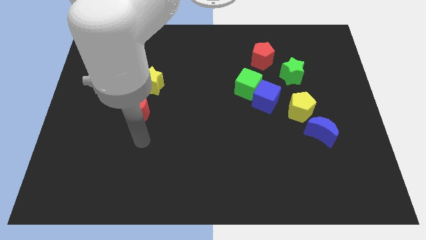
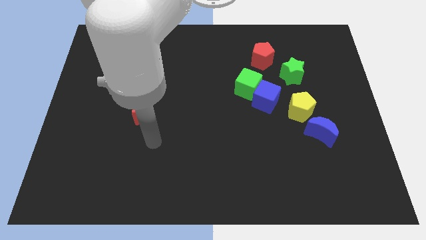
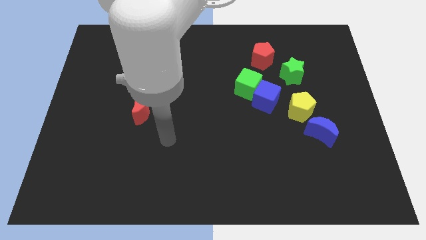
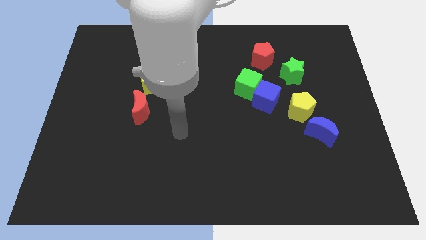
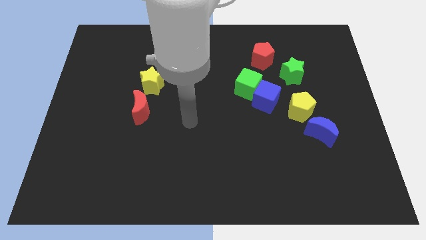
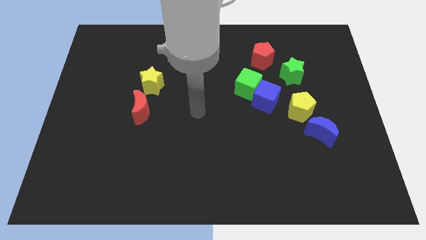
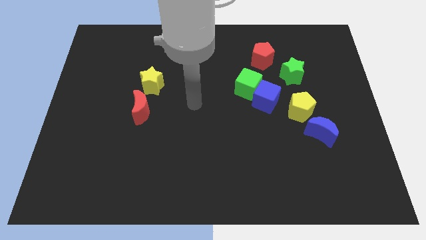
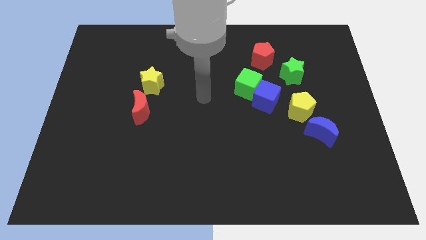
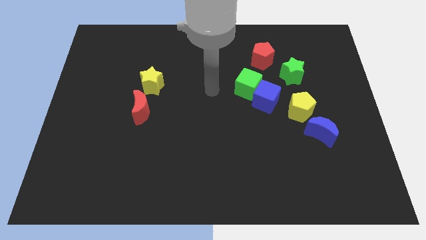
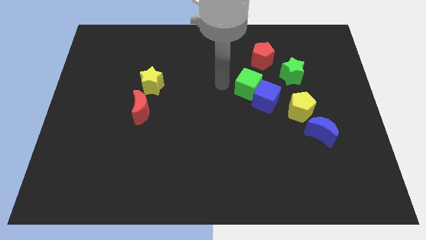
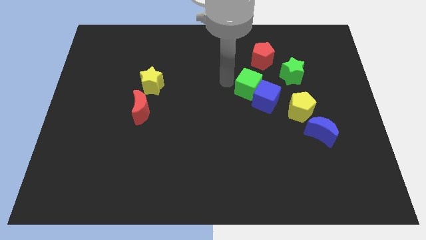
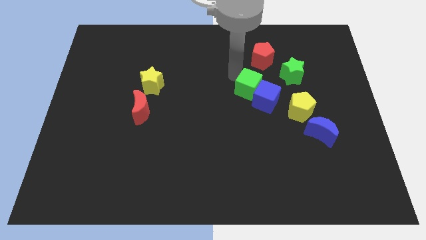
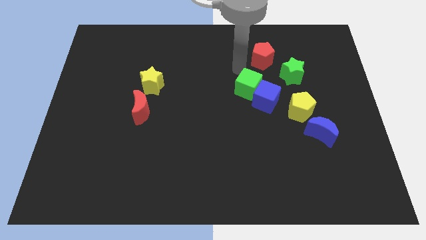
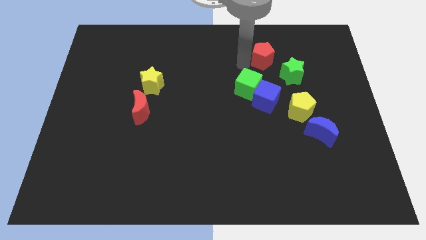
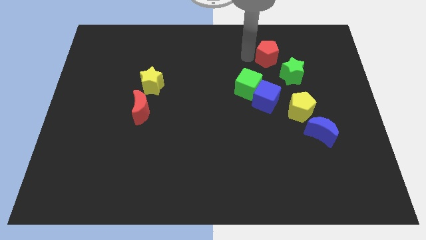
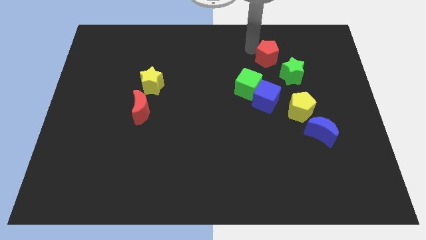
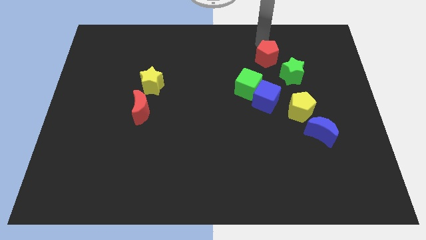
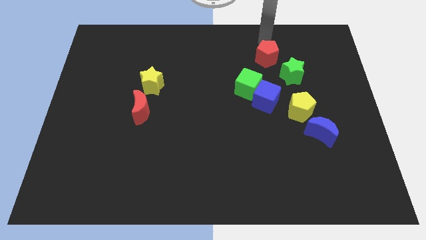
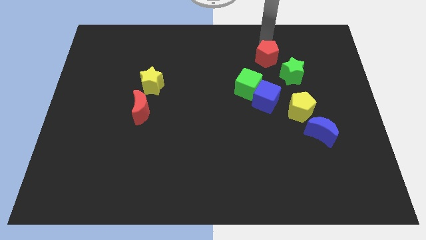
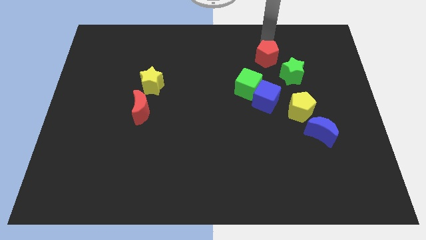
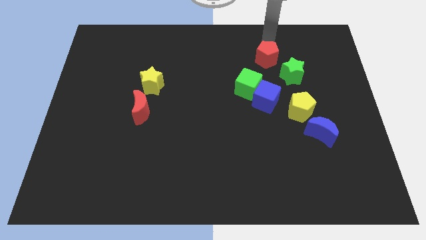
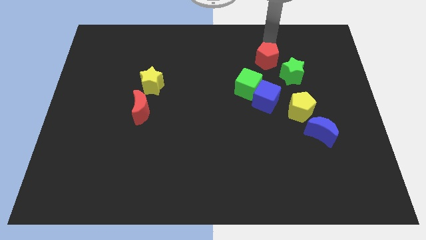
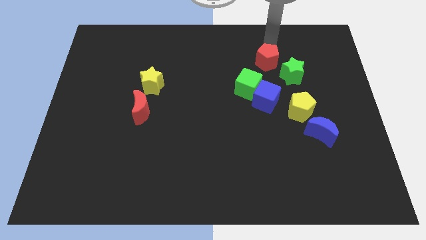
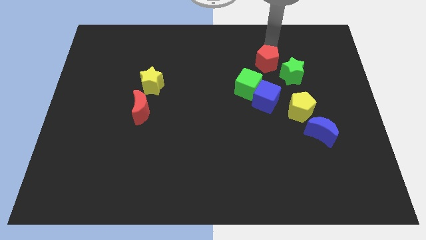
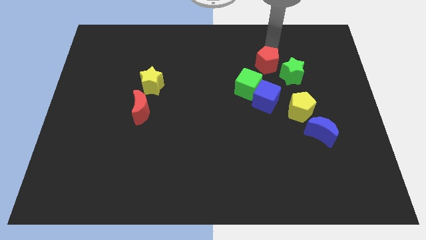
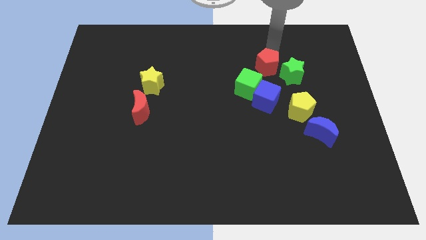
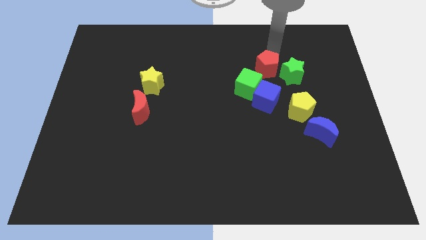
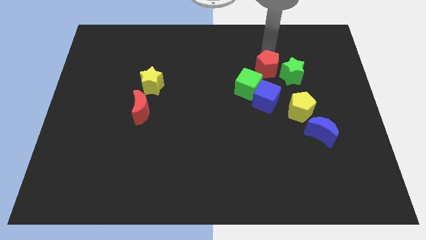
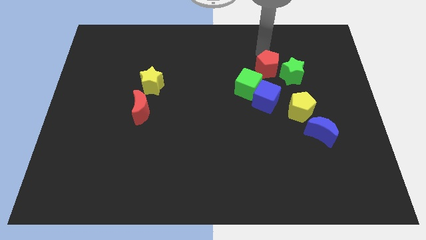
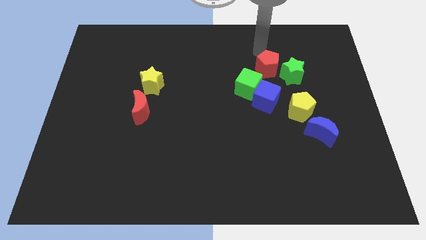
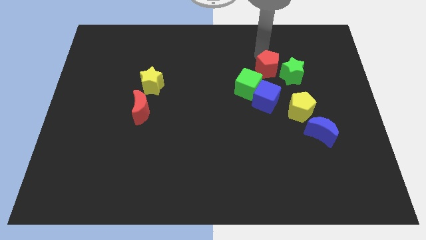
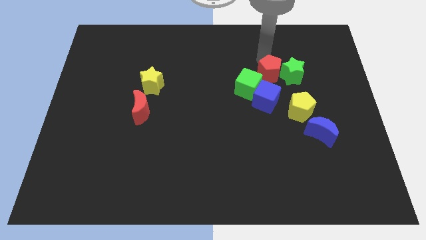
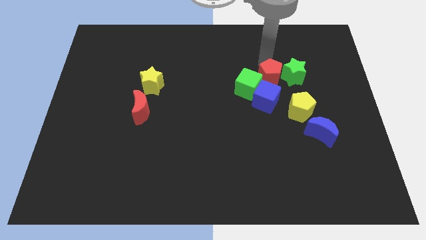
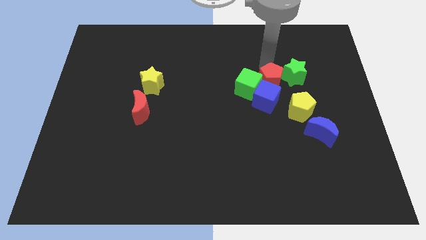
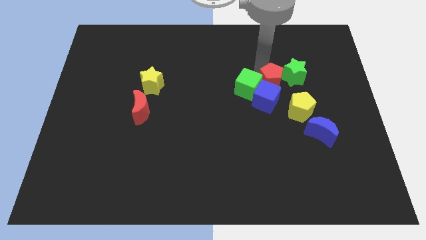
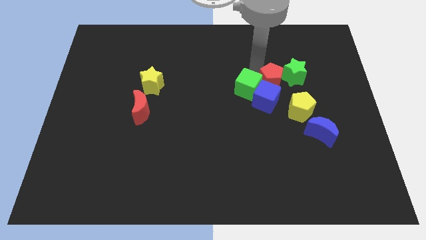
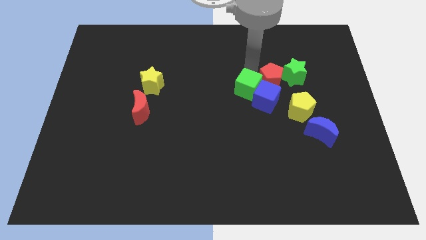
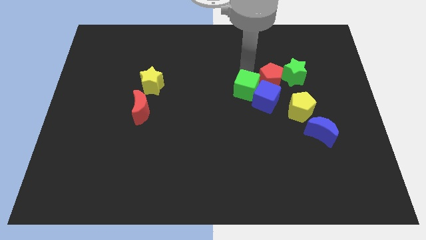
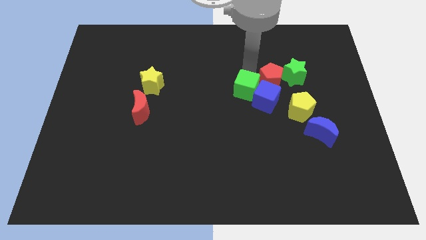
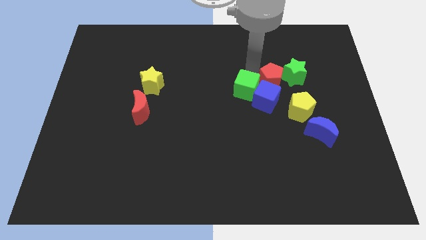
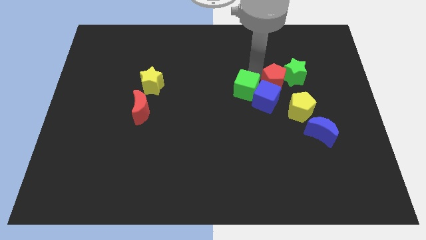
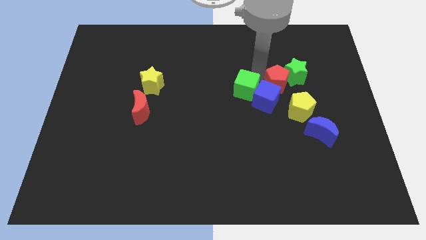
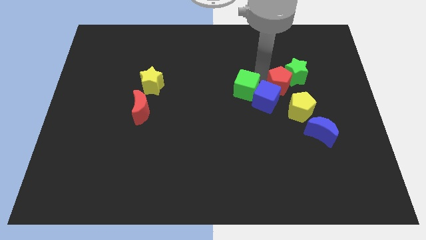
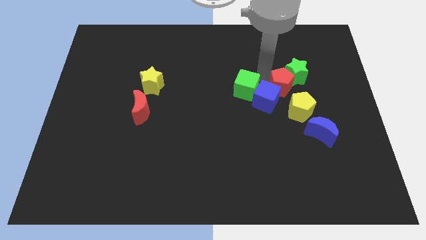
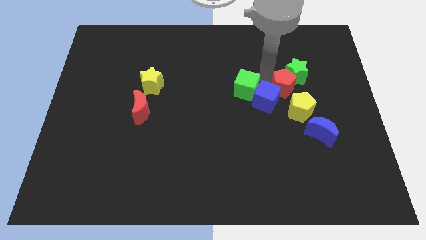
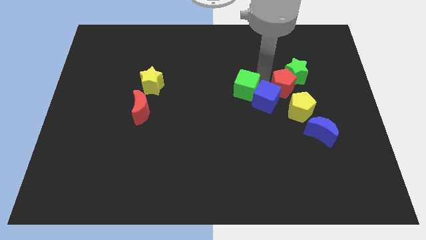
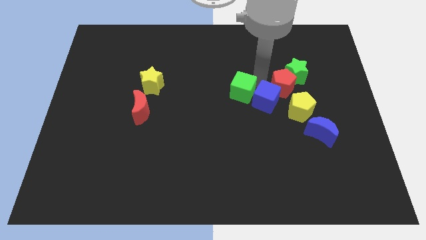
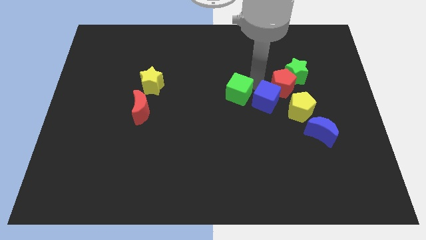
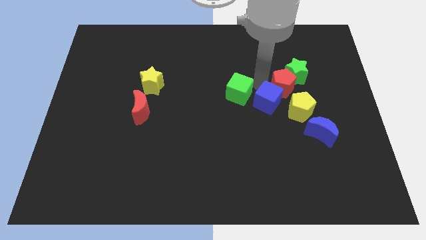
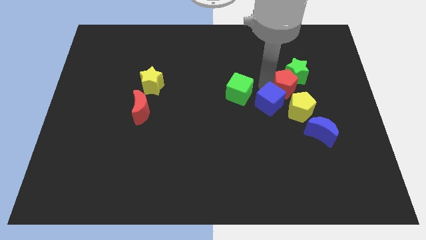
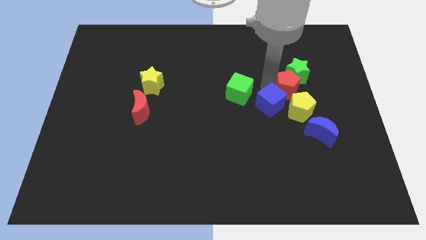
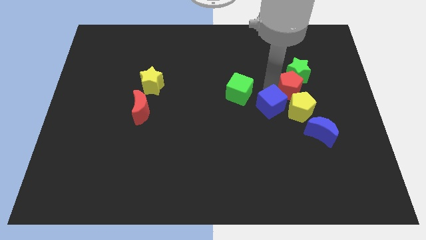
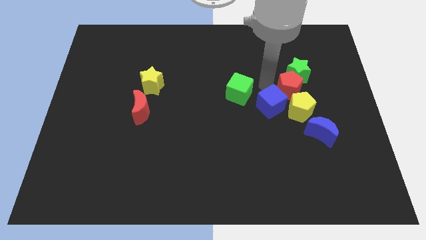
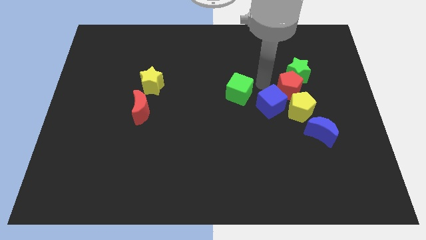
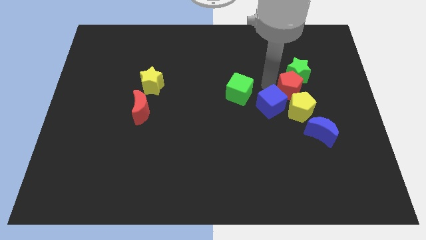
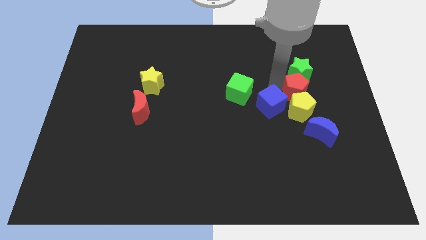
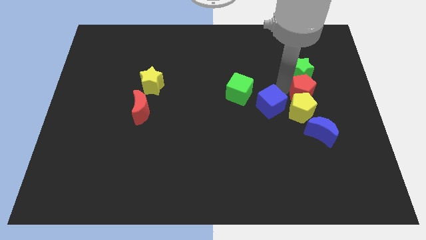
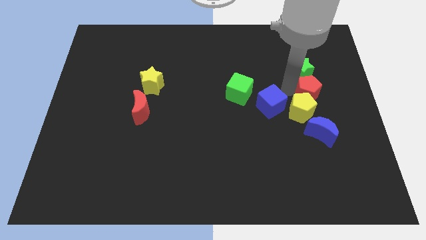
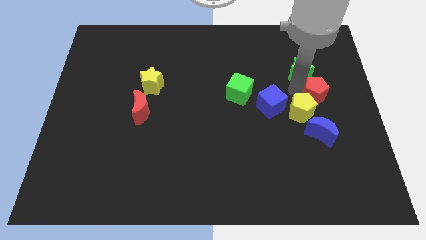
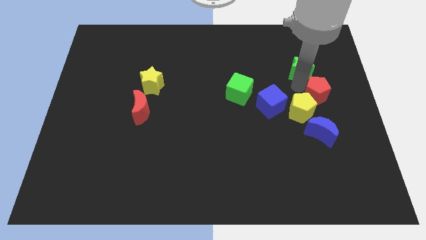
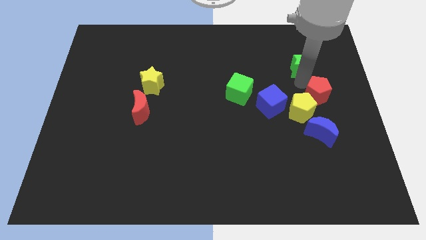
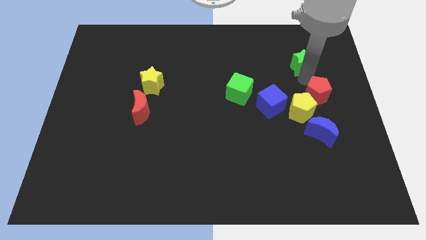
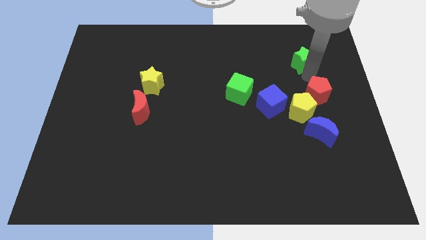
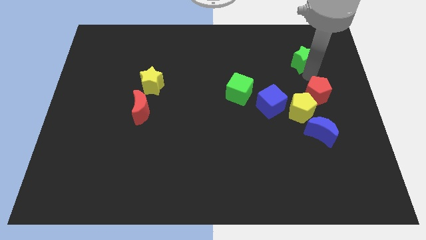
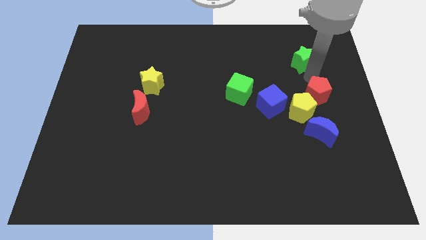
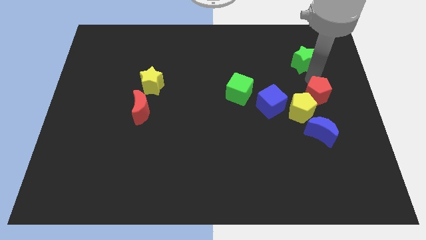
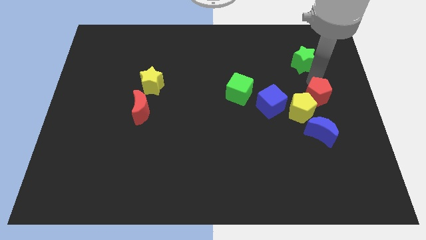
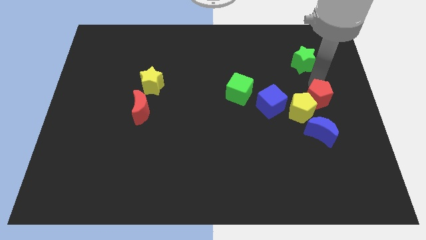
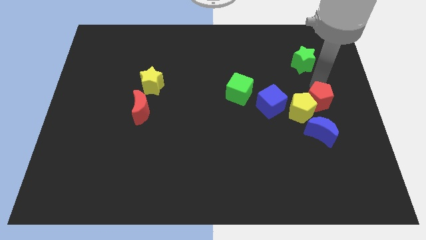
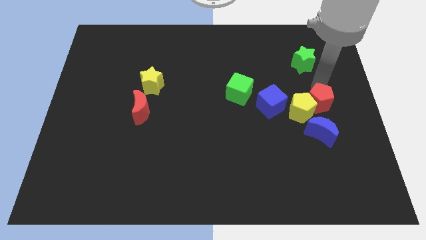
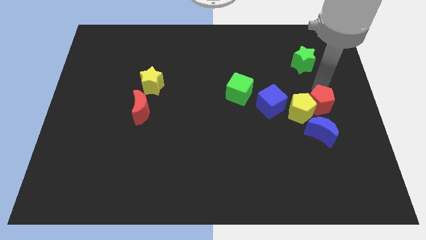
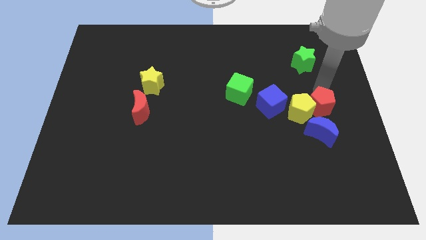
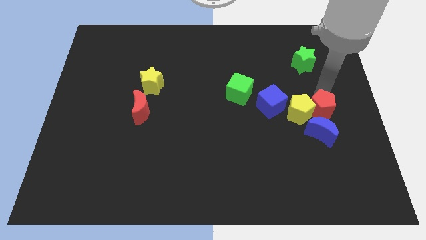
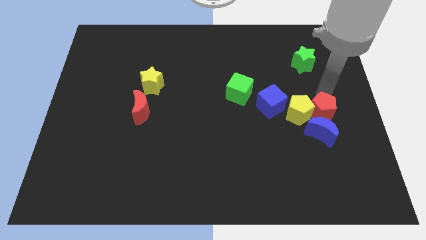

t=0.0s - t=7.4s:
slide the red pentagon towards the blue moon

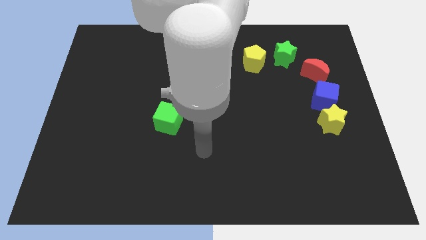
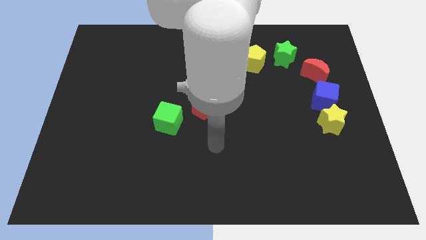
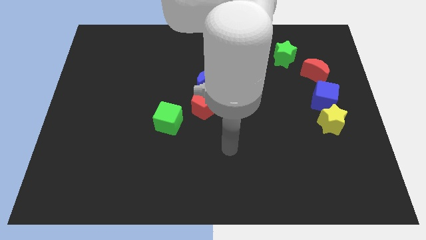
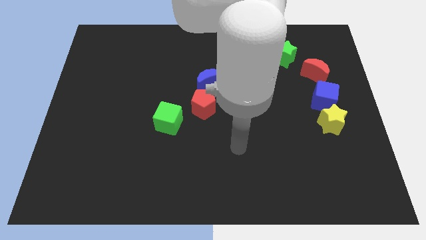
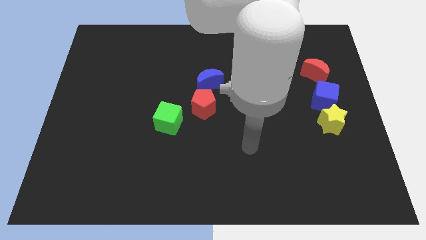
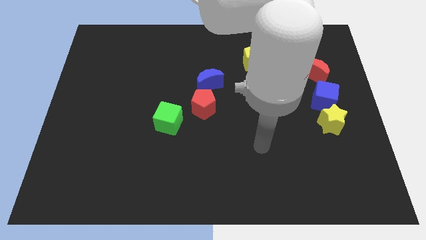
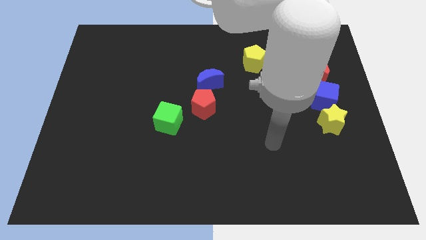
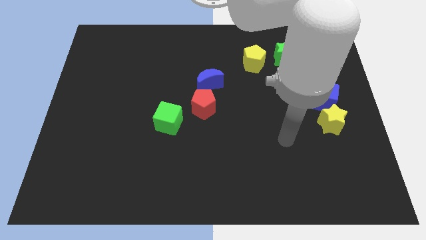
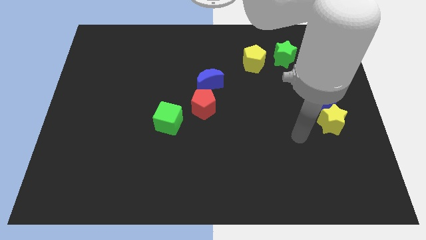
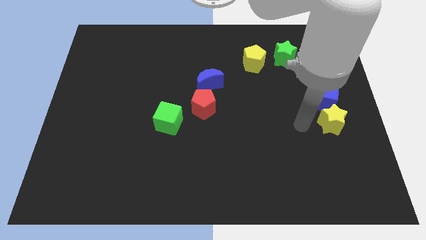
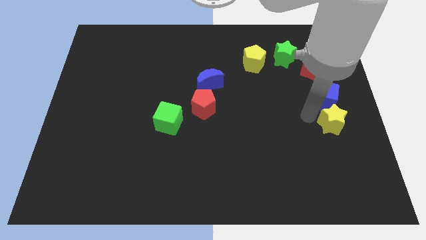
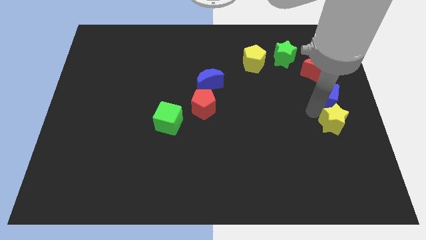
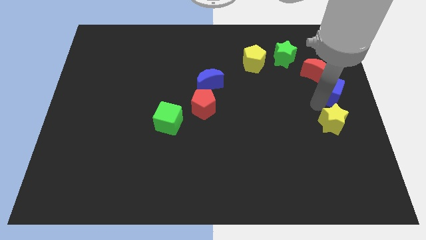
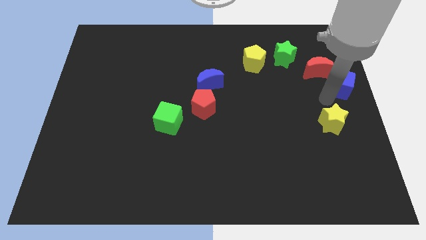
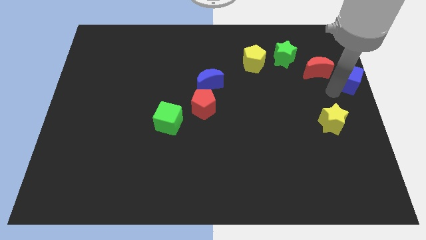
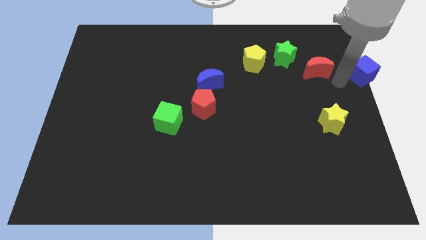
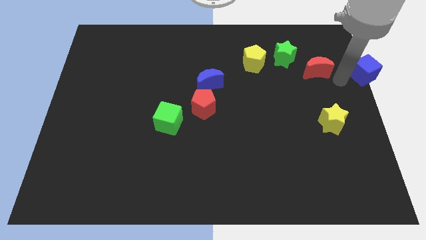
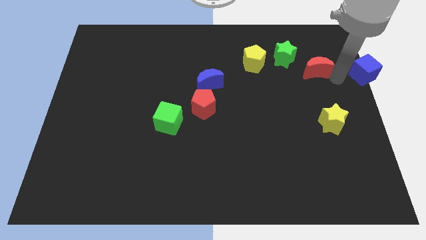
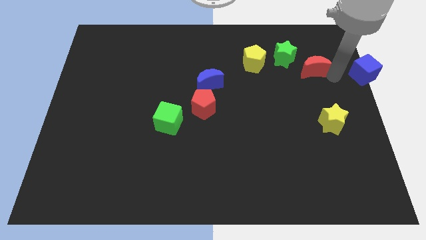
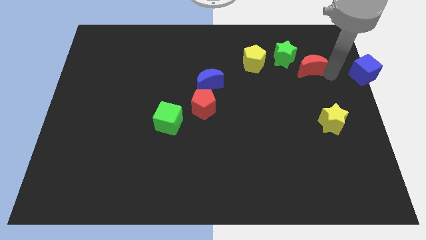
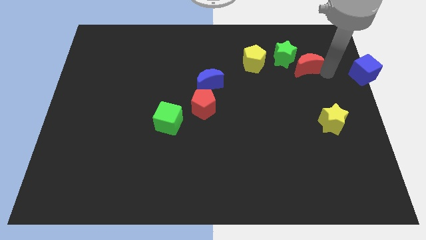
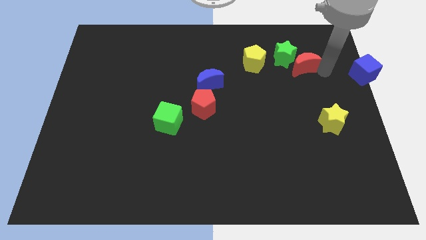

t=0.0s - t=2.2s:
put the red moon next to the green star
